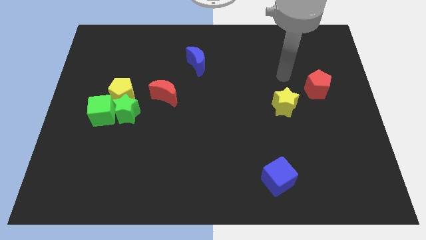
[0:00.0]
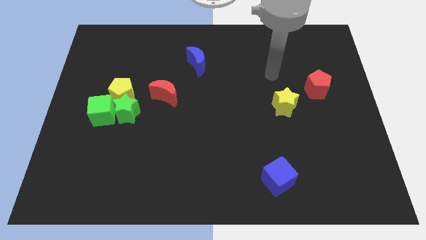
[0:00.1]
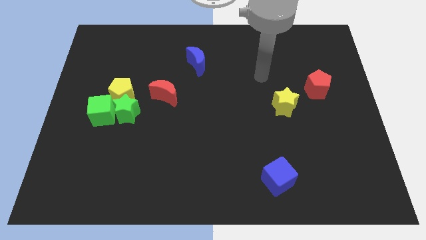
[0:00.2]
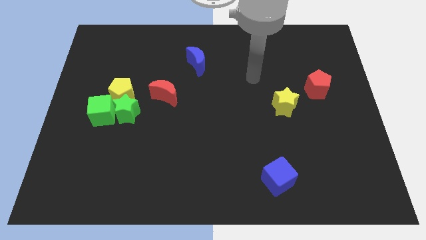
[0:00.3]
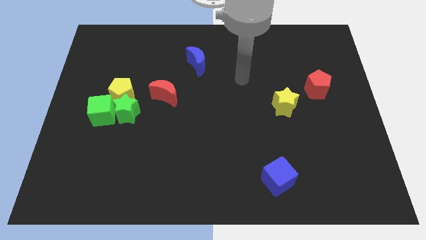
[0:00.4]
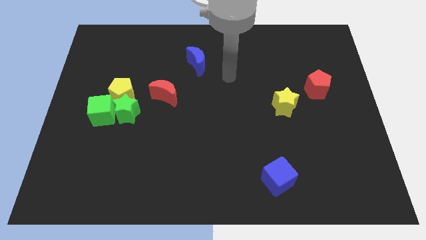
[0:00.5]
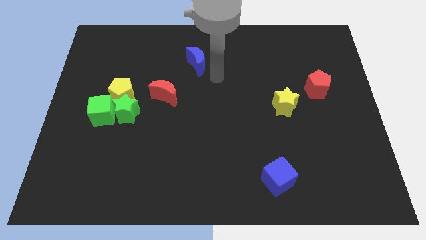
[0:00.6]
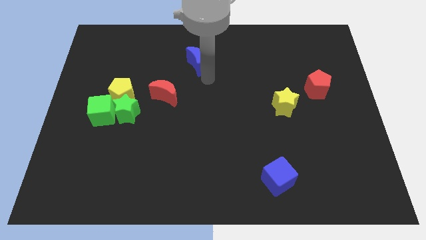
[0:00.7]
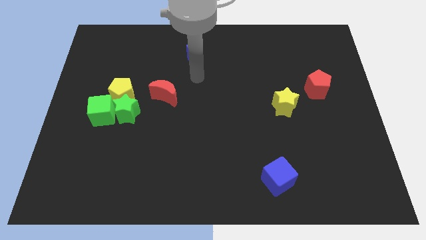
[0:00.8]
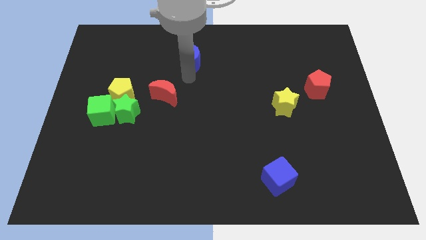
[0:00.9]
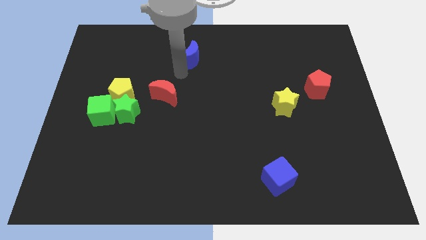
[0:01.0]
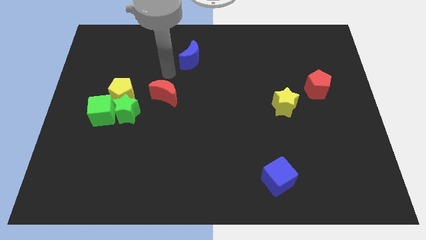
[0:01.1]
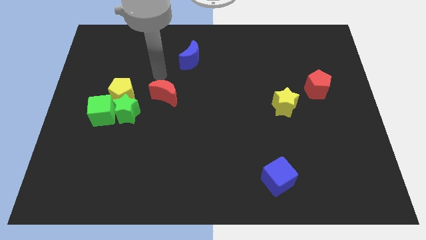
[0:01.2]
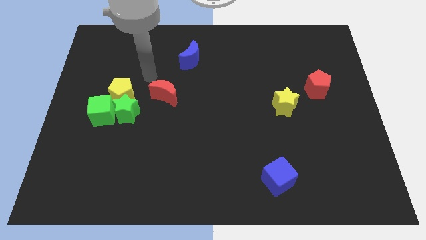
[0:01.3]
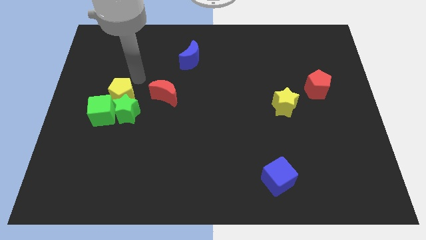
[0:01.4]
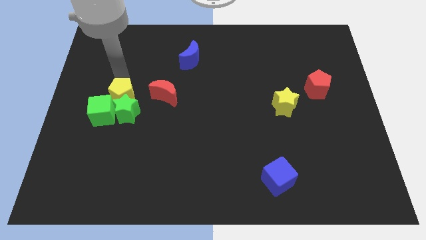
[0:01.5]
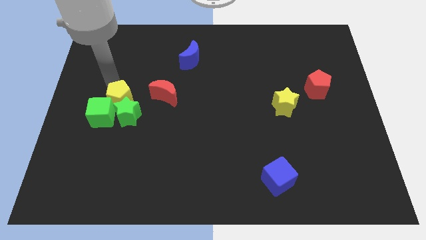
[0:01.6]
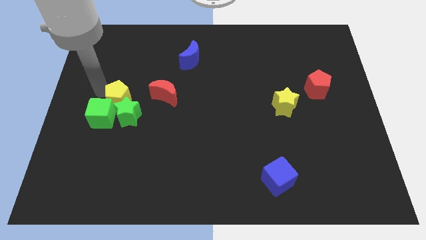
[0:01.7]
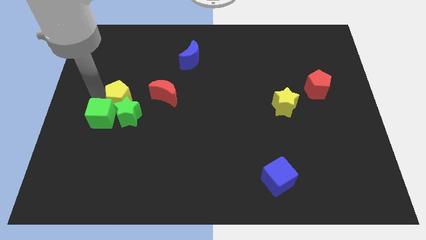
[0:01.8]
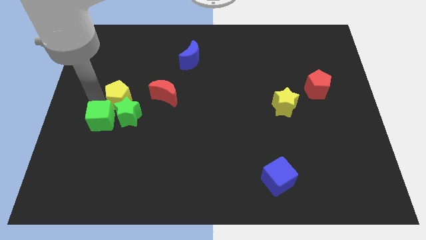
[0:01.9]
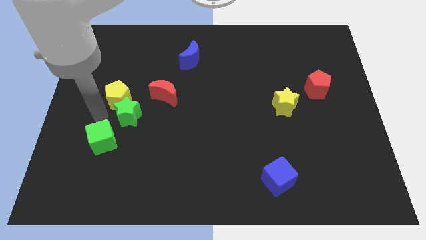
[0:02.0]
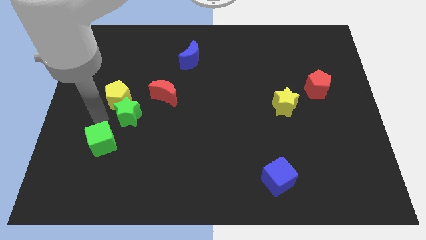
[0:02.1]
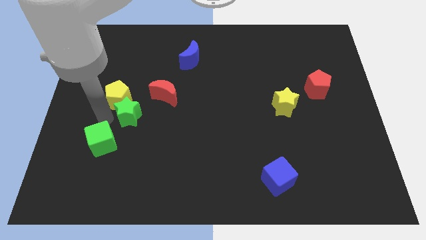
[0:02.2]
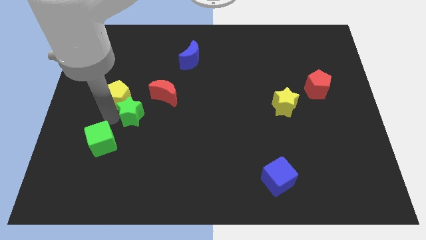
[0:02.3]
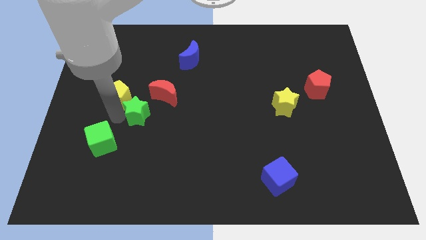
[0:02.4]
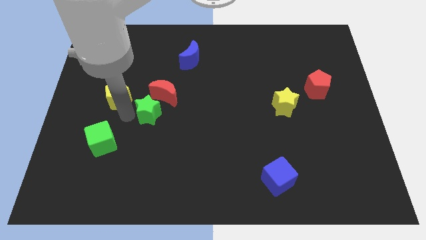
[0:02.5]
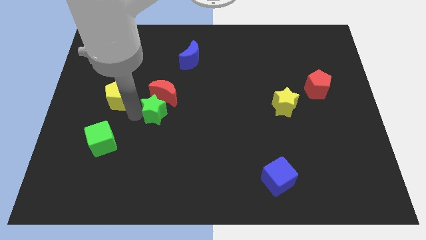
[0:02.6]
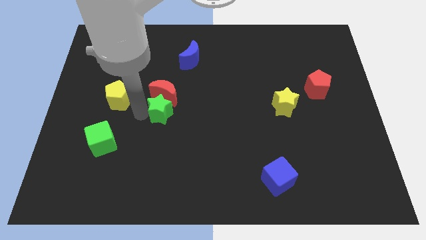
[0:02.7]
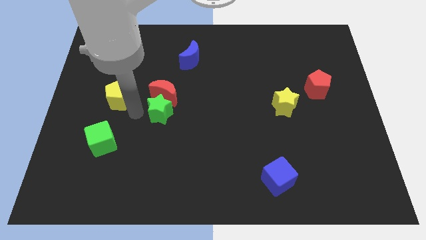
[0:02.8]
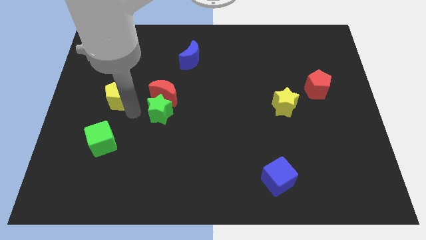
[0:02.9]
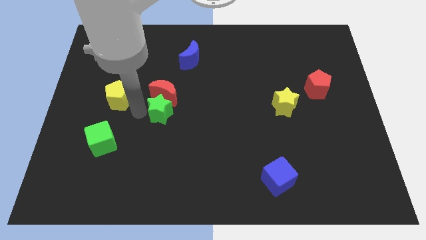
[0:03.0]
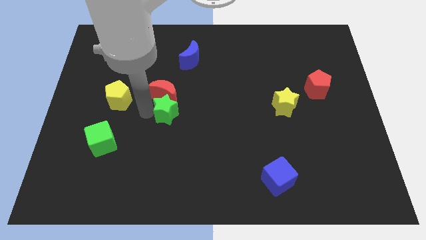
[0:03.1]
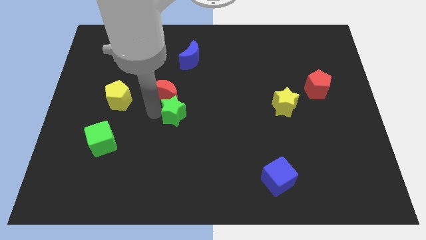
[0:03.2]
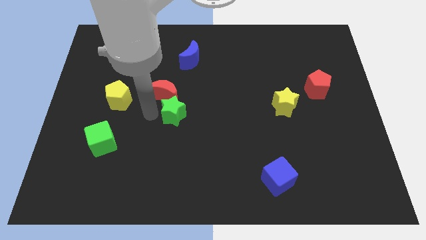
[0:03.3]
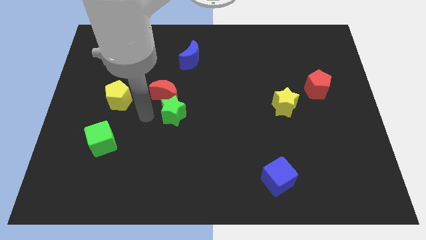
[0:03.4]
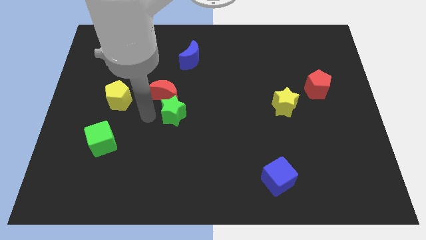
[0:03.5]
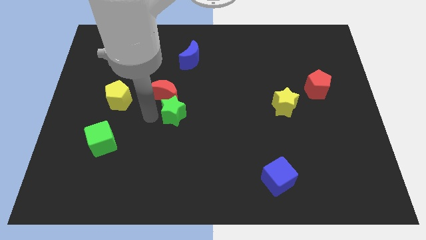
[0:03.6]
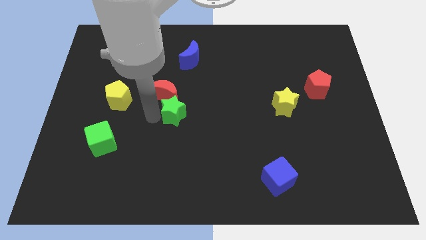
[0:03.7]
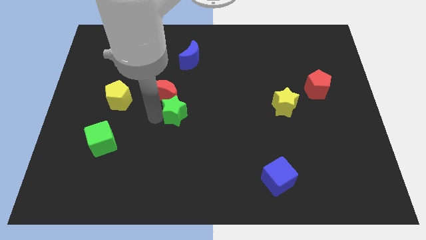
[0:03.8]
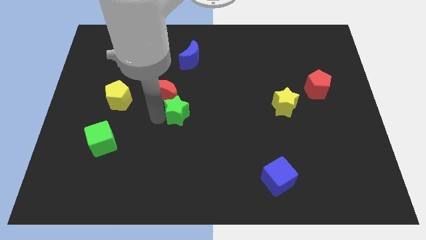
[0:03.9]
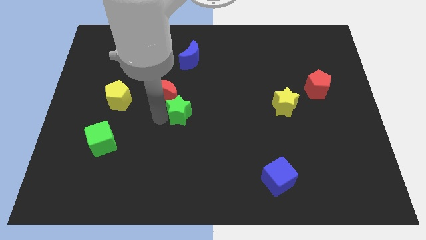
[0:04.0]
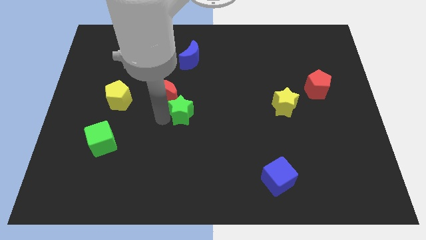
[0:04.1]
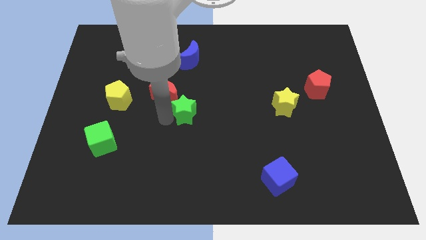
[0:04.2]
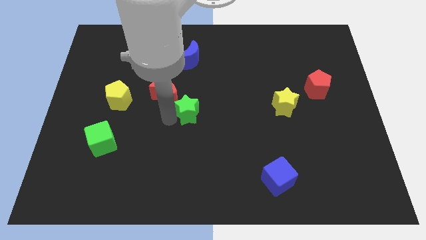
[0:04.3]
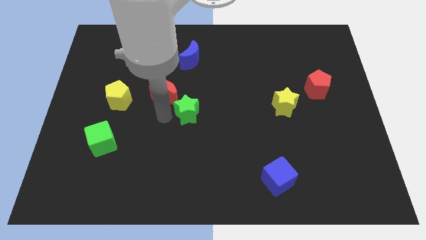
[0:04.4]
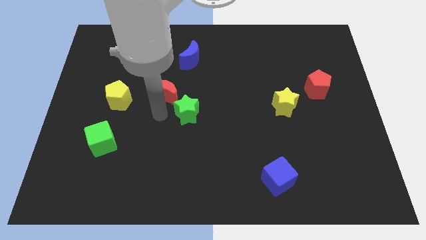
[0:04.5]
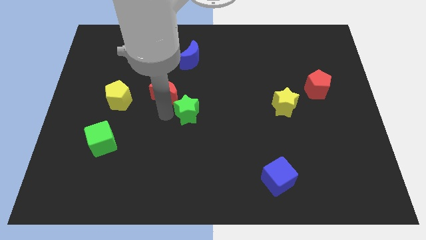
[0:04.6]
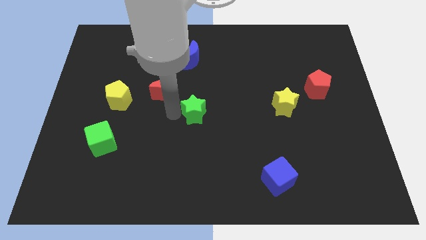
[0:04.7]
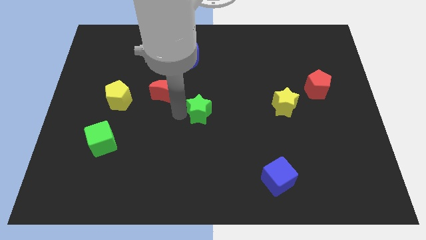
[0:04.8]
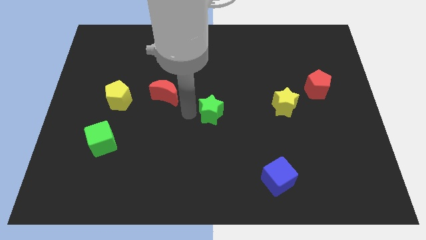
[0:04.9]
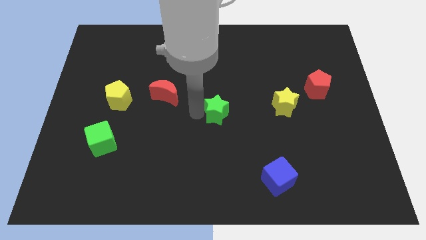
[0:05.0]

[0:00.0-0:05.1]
slide the green star to the right

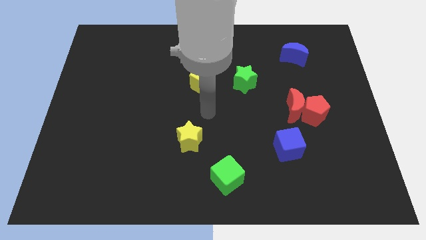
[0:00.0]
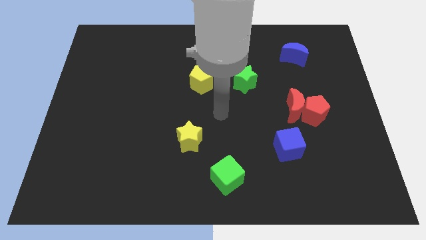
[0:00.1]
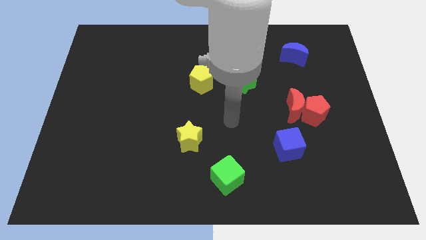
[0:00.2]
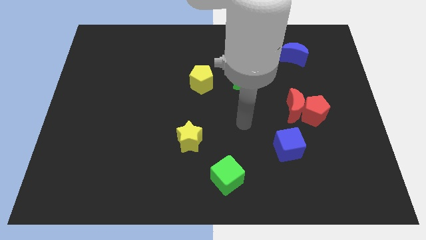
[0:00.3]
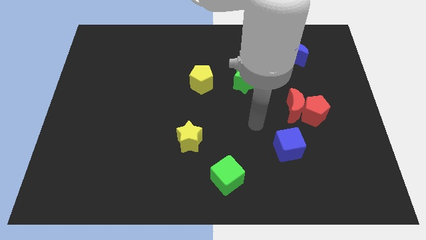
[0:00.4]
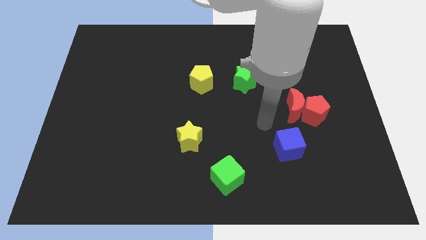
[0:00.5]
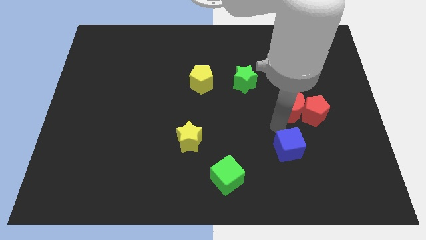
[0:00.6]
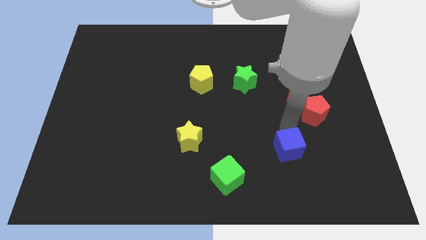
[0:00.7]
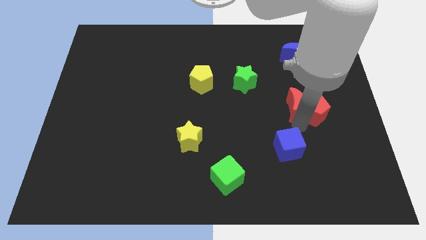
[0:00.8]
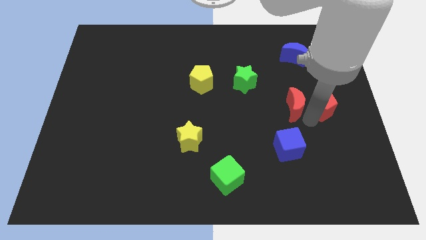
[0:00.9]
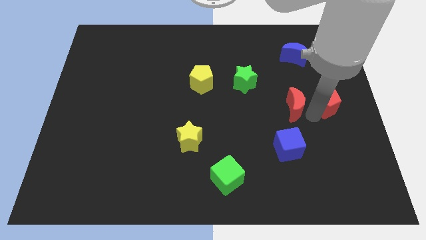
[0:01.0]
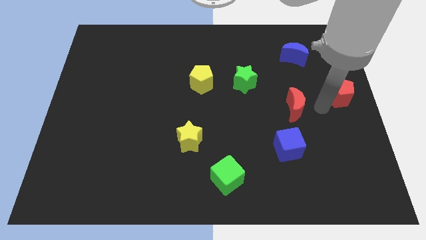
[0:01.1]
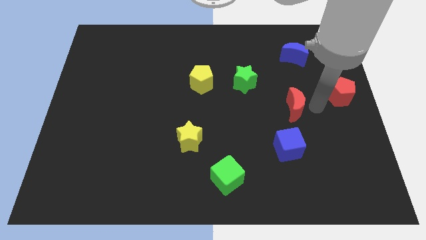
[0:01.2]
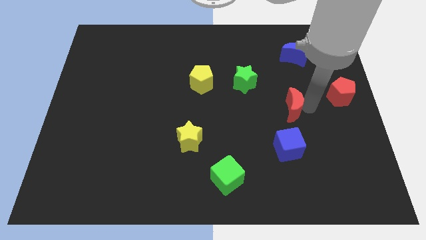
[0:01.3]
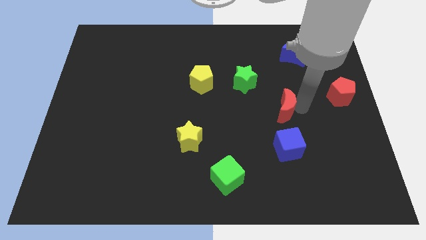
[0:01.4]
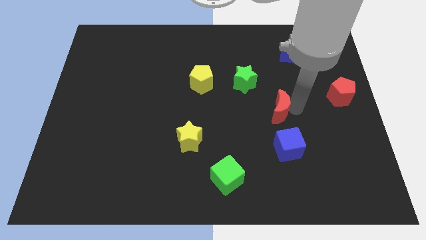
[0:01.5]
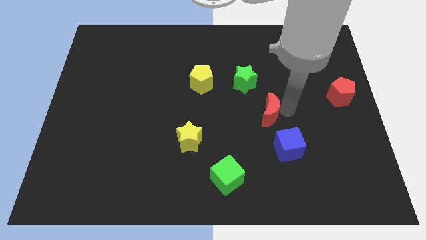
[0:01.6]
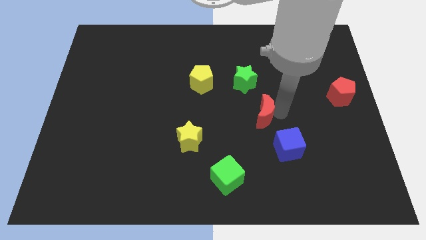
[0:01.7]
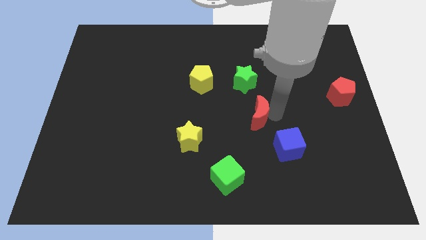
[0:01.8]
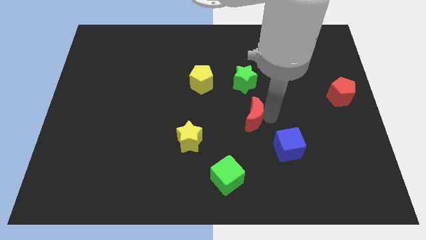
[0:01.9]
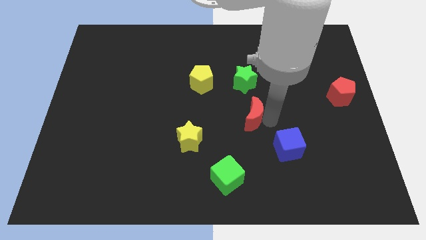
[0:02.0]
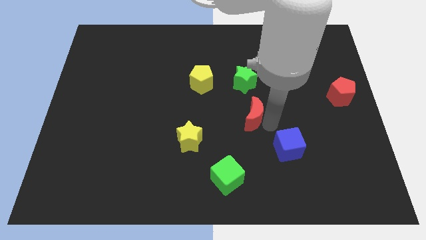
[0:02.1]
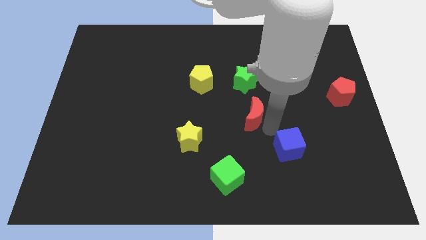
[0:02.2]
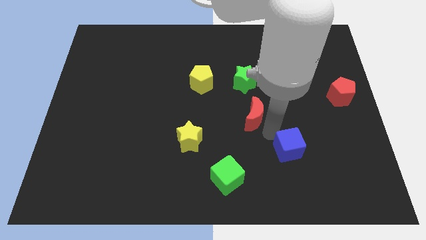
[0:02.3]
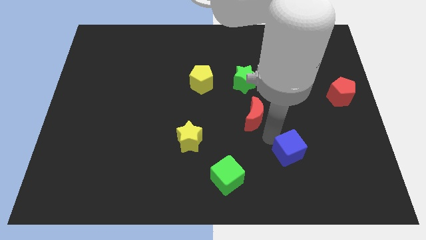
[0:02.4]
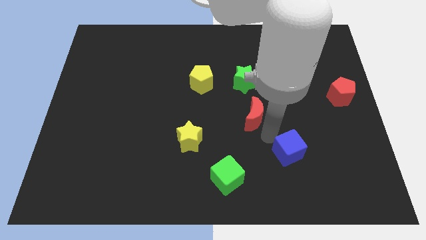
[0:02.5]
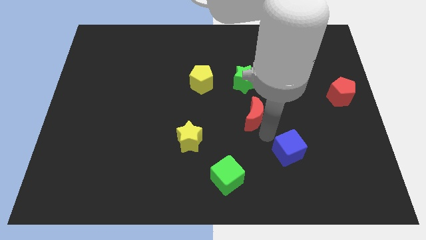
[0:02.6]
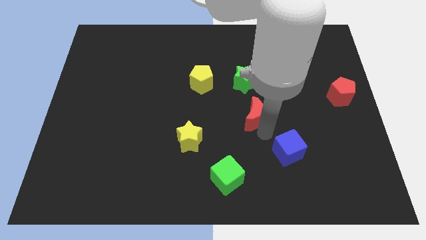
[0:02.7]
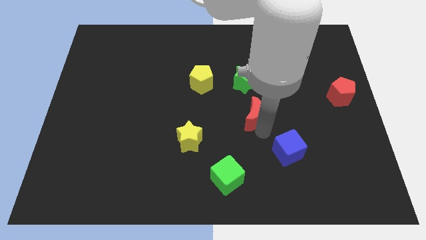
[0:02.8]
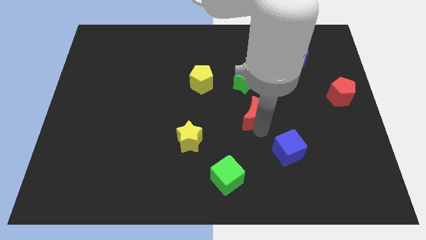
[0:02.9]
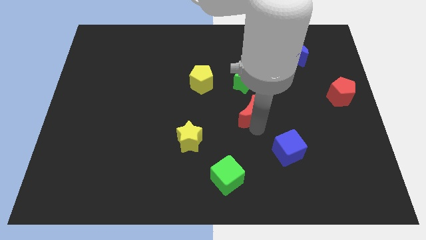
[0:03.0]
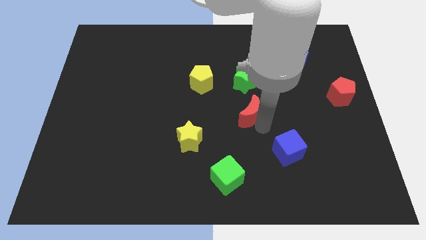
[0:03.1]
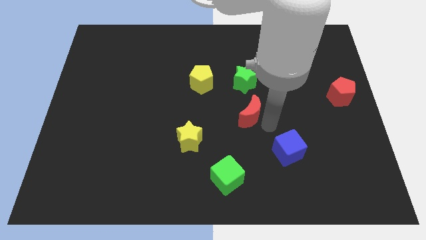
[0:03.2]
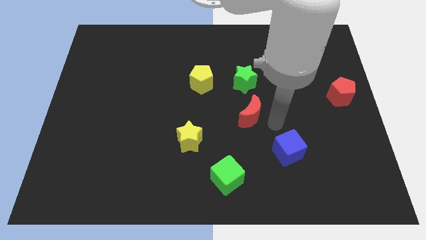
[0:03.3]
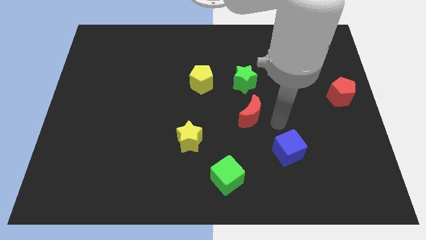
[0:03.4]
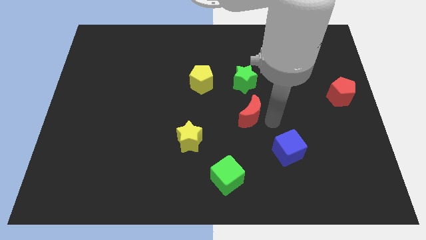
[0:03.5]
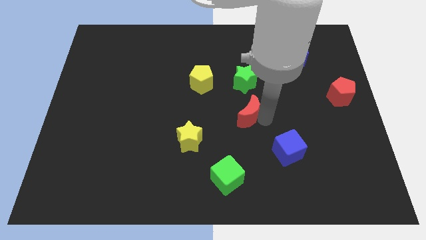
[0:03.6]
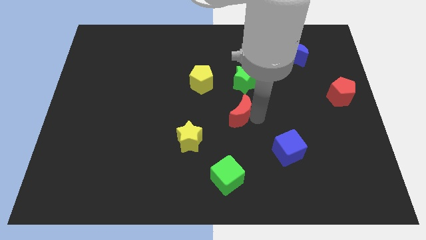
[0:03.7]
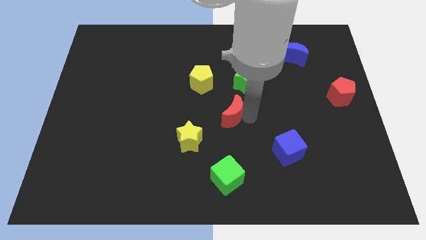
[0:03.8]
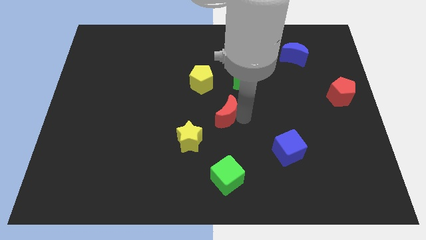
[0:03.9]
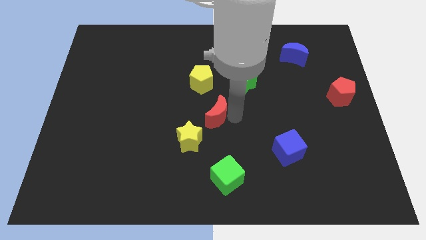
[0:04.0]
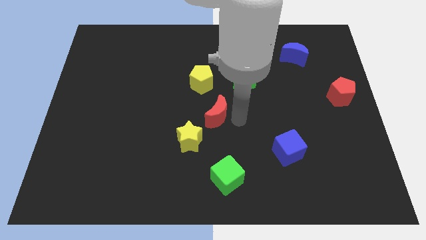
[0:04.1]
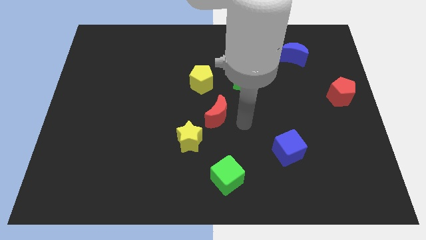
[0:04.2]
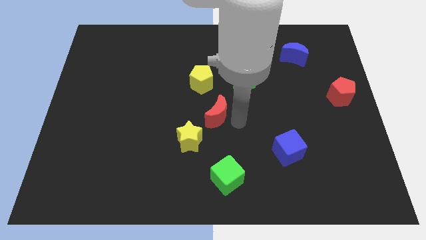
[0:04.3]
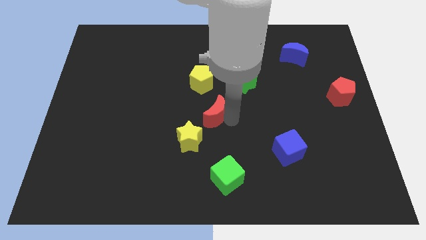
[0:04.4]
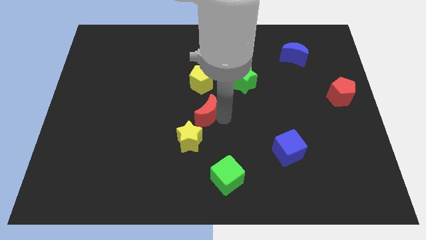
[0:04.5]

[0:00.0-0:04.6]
push the red moon left
